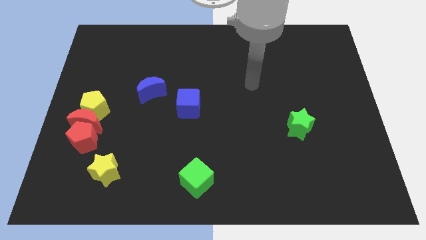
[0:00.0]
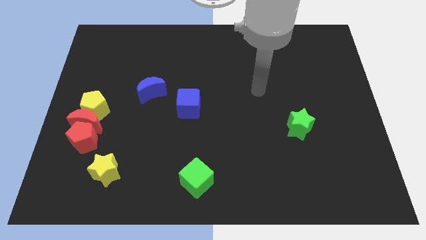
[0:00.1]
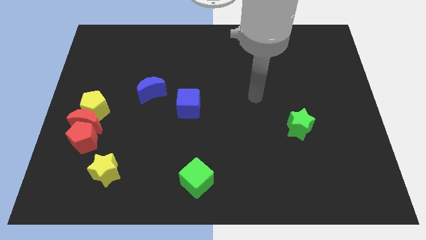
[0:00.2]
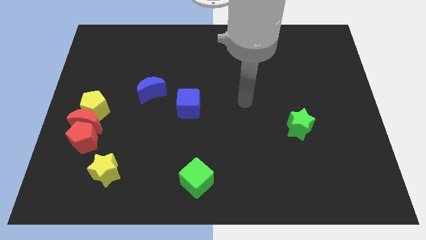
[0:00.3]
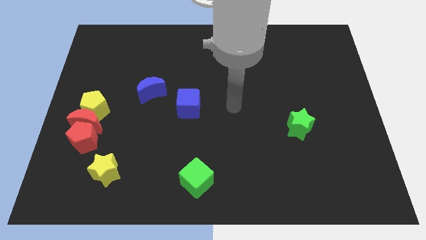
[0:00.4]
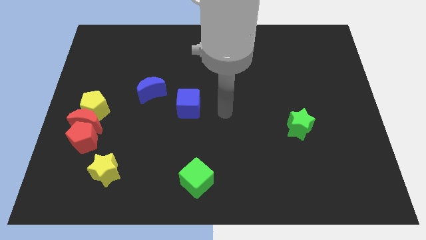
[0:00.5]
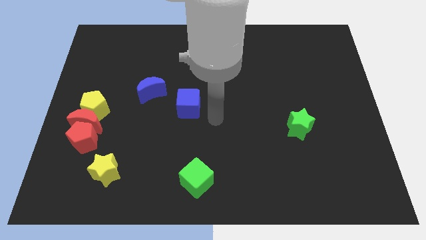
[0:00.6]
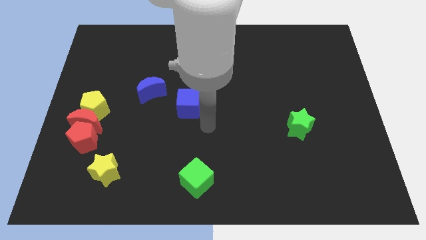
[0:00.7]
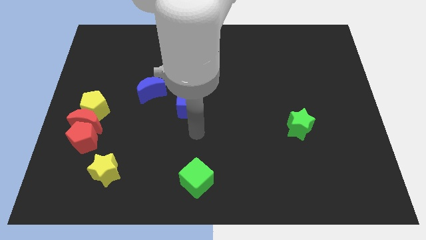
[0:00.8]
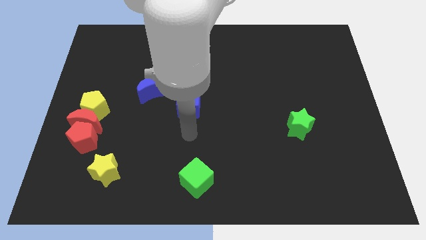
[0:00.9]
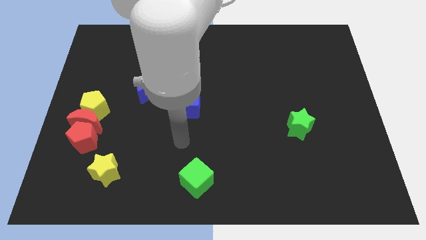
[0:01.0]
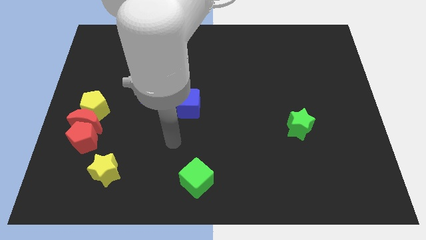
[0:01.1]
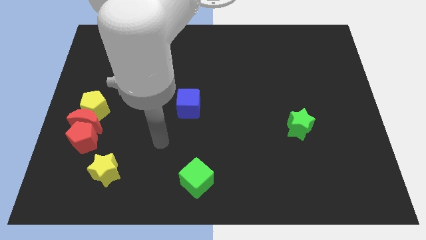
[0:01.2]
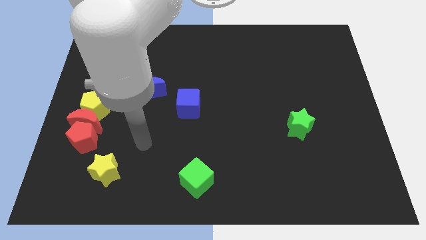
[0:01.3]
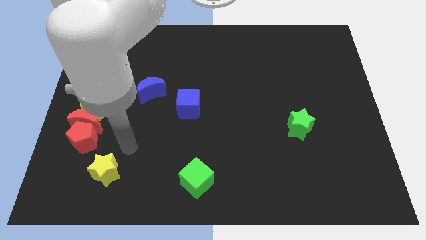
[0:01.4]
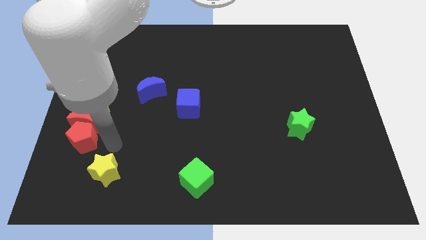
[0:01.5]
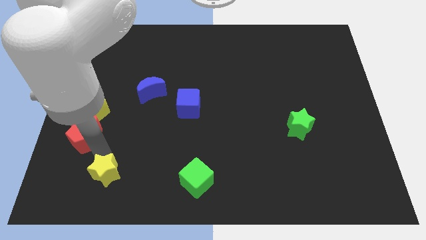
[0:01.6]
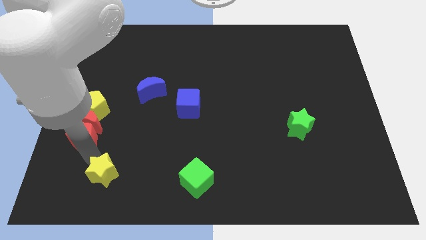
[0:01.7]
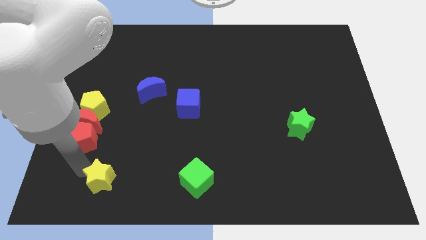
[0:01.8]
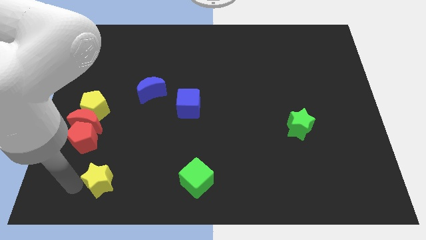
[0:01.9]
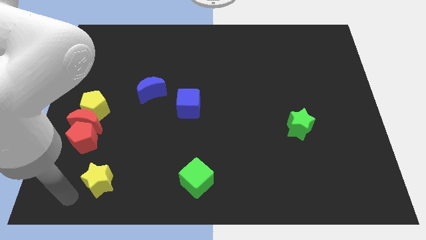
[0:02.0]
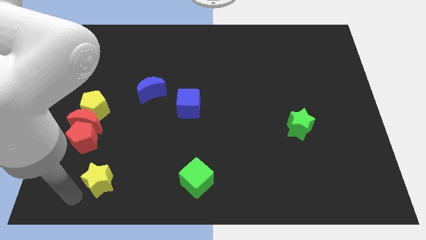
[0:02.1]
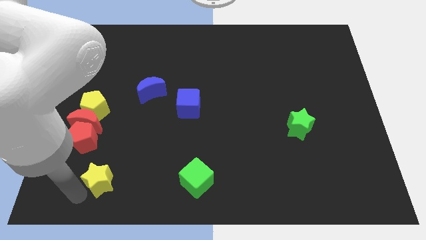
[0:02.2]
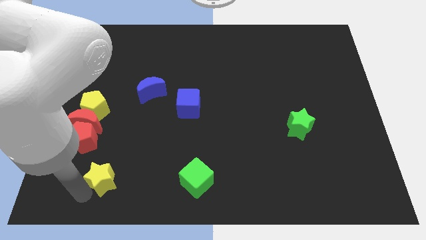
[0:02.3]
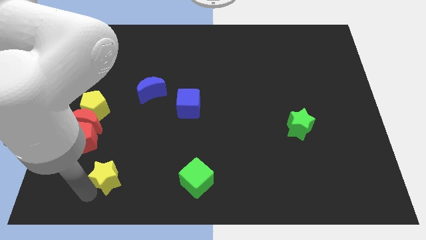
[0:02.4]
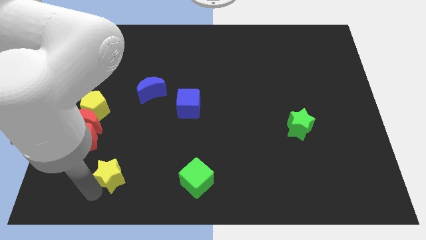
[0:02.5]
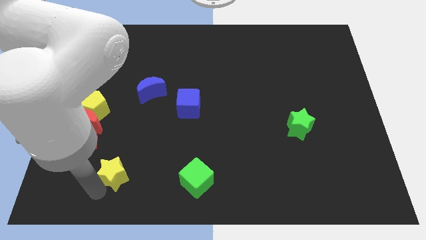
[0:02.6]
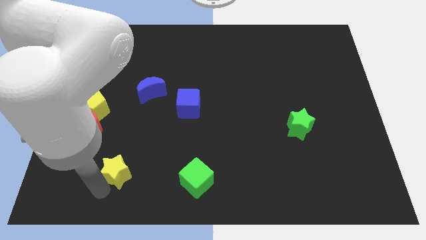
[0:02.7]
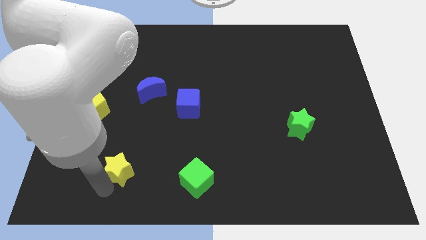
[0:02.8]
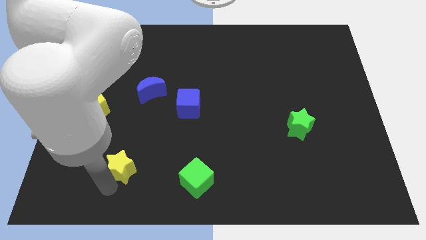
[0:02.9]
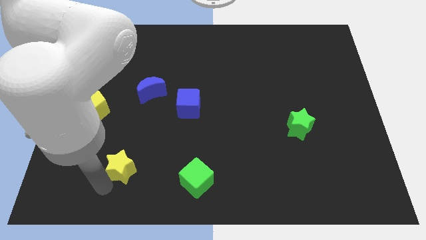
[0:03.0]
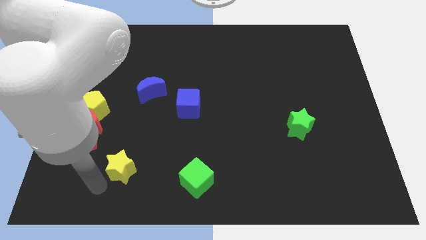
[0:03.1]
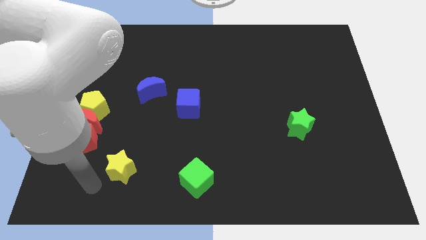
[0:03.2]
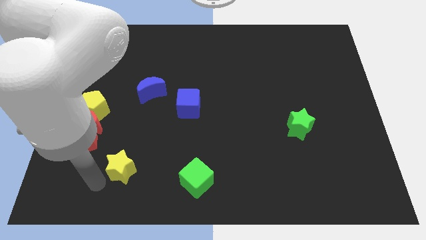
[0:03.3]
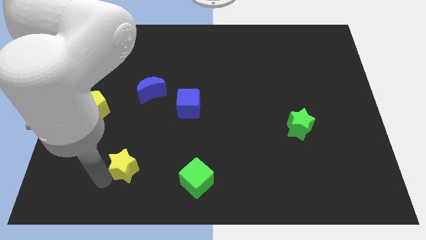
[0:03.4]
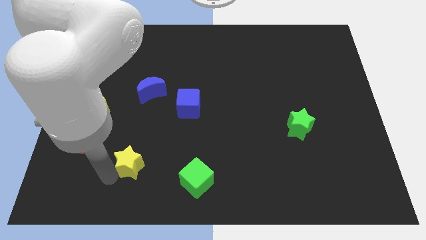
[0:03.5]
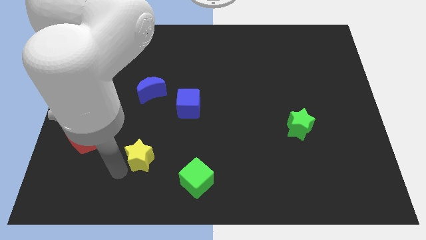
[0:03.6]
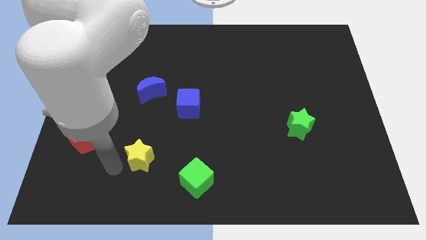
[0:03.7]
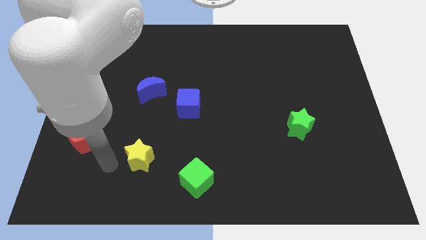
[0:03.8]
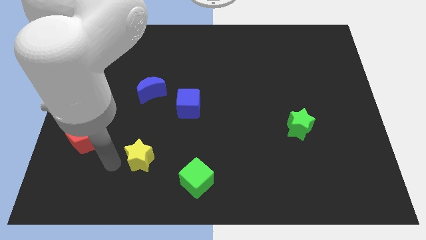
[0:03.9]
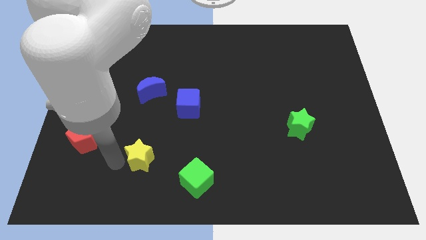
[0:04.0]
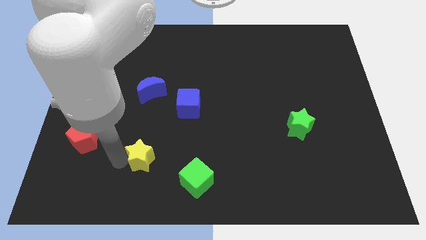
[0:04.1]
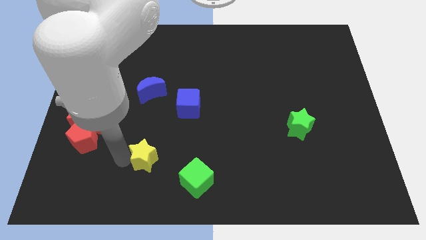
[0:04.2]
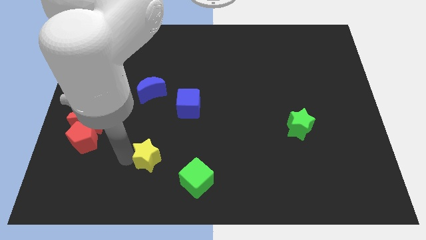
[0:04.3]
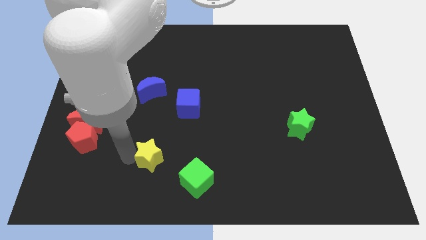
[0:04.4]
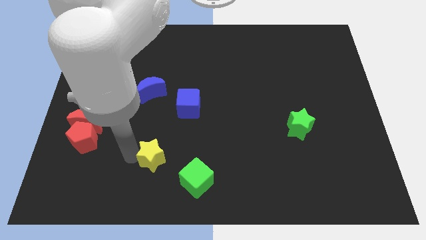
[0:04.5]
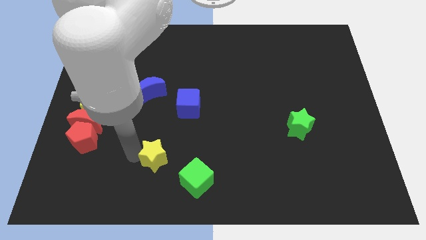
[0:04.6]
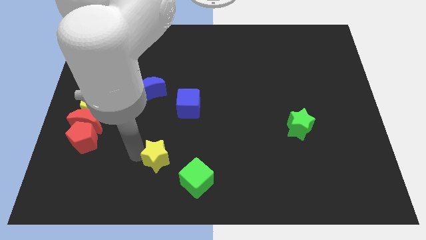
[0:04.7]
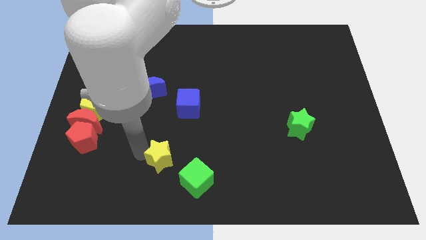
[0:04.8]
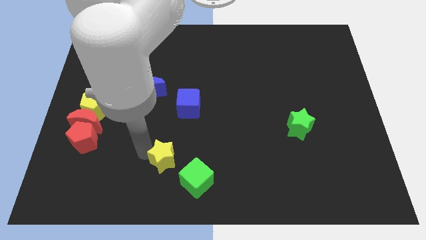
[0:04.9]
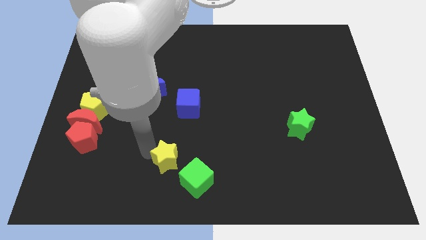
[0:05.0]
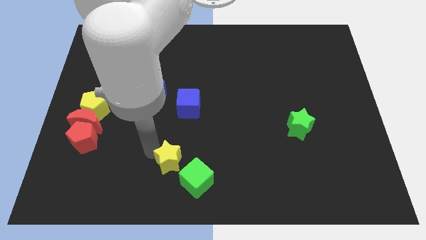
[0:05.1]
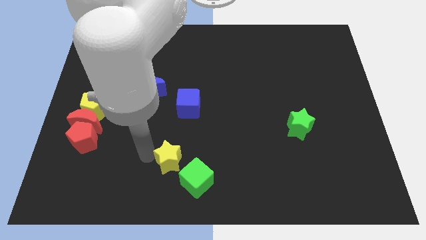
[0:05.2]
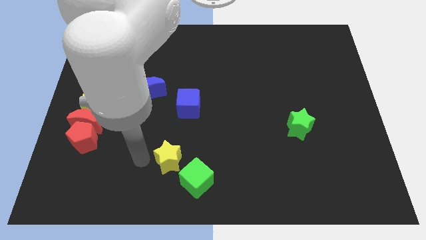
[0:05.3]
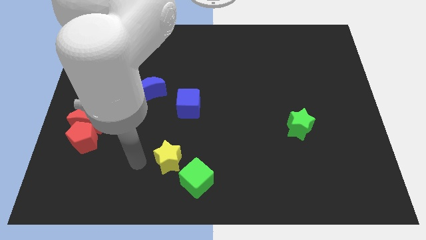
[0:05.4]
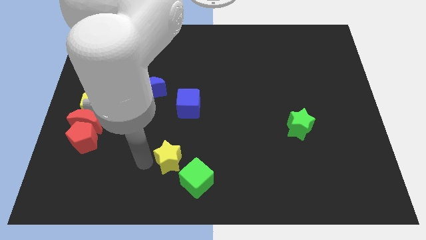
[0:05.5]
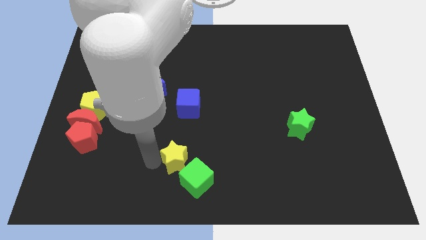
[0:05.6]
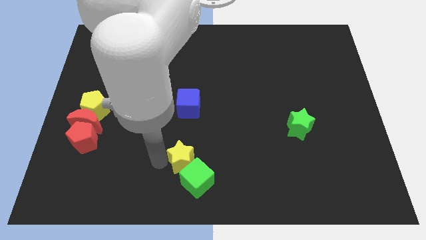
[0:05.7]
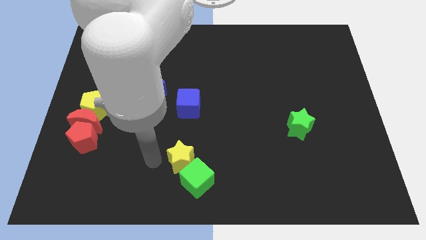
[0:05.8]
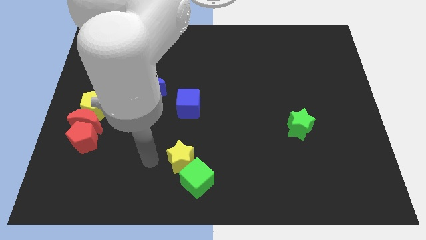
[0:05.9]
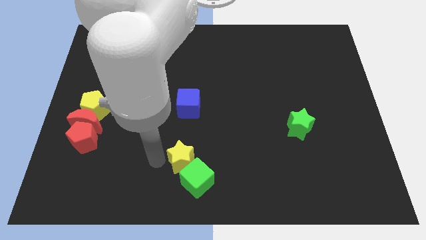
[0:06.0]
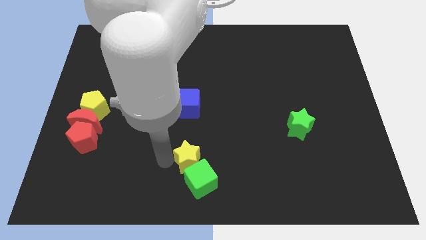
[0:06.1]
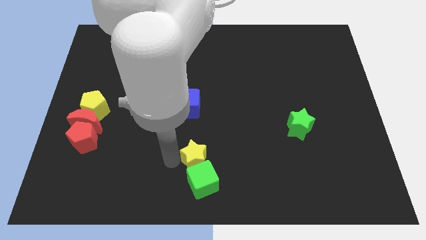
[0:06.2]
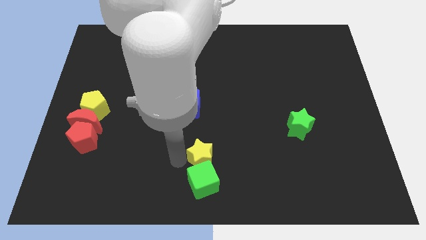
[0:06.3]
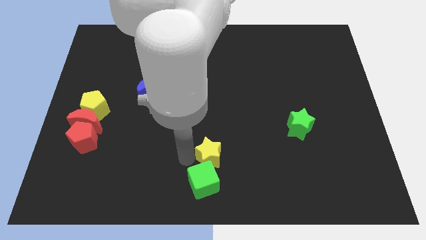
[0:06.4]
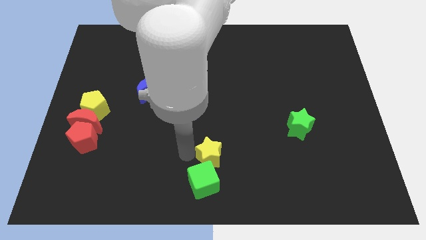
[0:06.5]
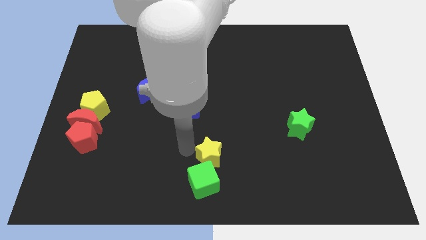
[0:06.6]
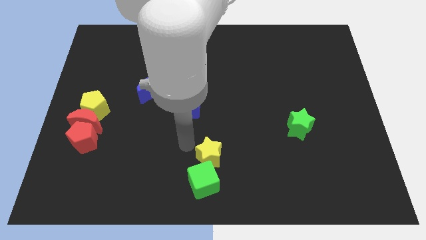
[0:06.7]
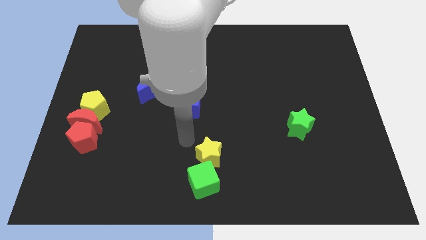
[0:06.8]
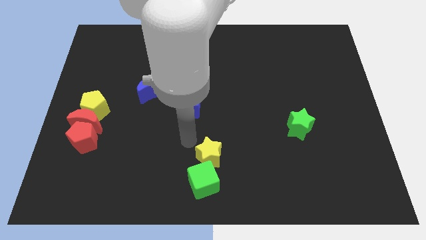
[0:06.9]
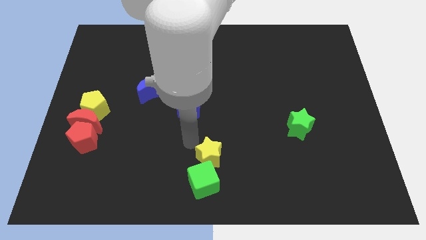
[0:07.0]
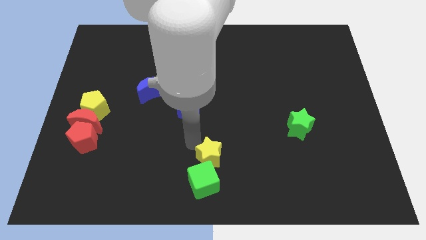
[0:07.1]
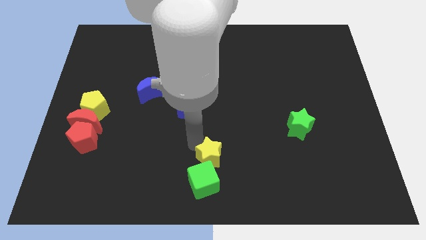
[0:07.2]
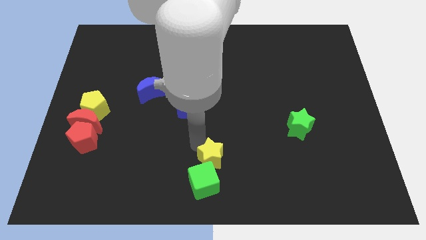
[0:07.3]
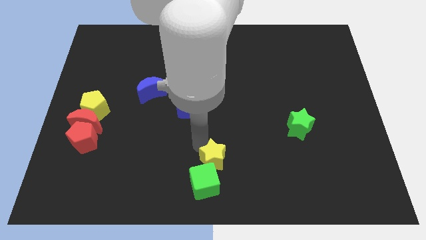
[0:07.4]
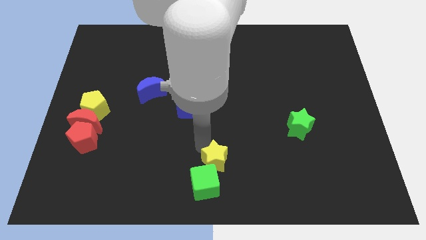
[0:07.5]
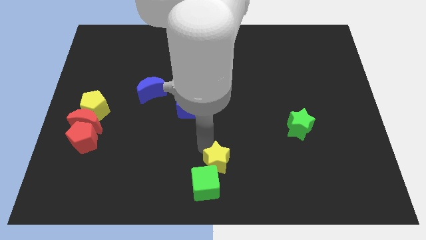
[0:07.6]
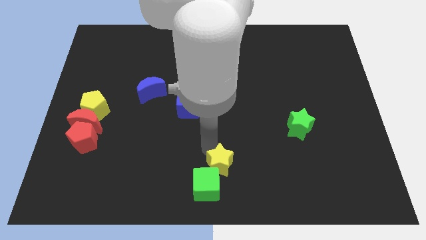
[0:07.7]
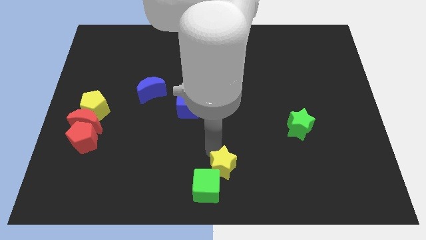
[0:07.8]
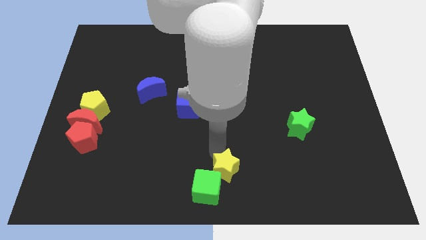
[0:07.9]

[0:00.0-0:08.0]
slide the yellow star just right of the green cube

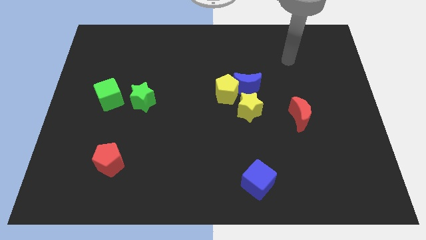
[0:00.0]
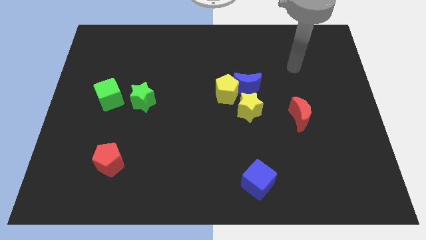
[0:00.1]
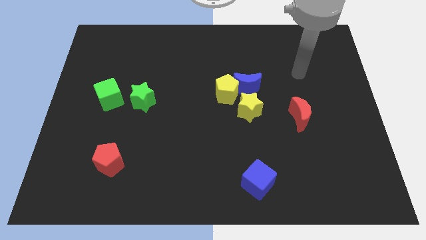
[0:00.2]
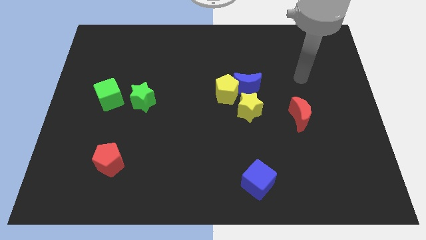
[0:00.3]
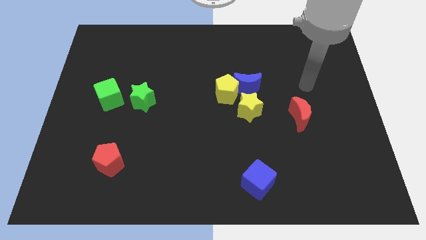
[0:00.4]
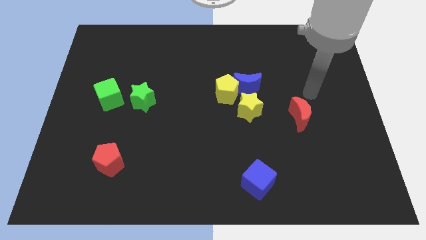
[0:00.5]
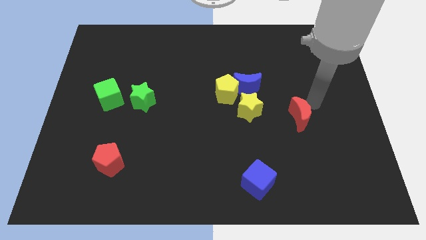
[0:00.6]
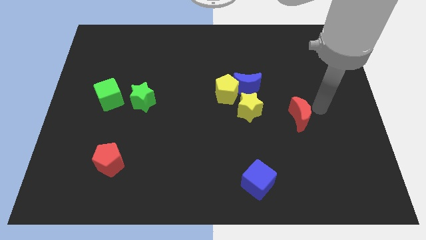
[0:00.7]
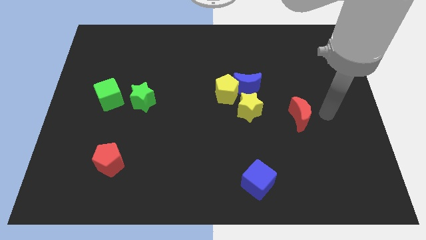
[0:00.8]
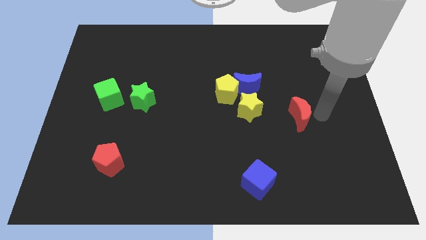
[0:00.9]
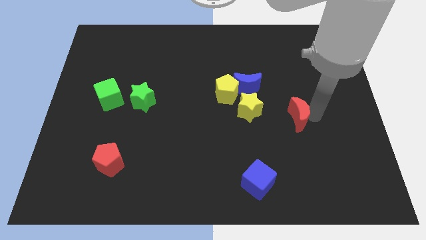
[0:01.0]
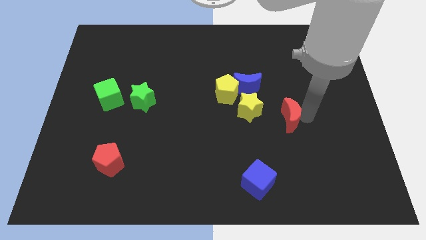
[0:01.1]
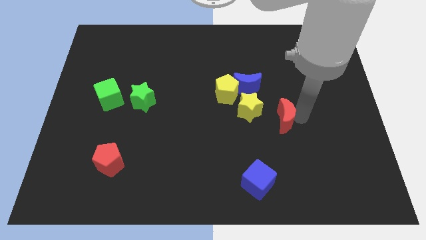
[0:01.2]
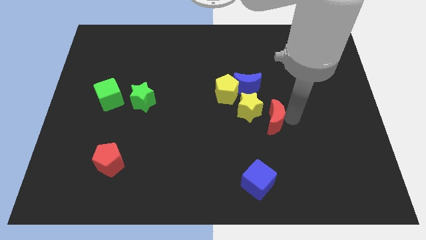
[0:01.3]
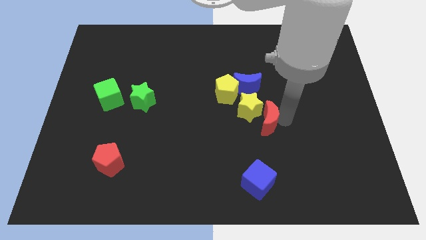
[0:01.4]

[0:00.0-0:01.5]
put the red moon to the bottom of the blue moon
